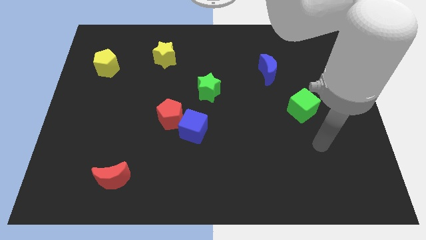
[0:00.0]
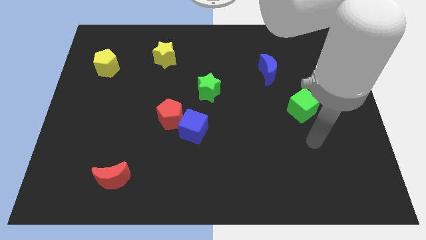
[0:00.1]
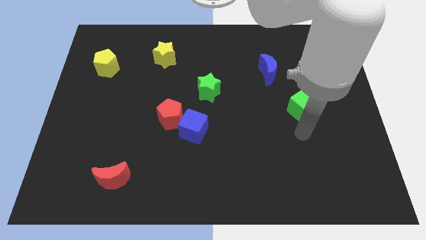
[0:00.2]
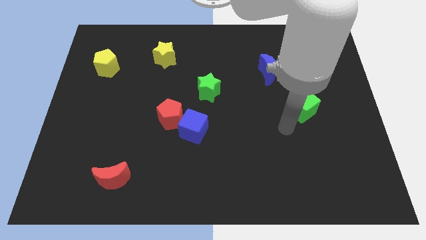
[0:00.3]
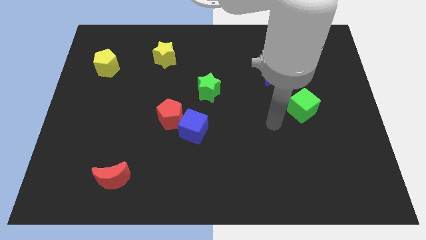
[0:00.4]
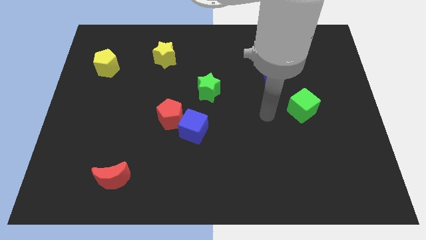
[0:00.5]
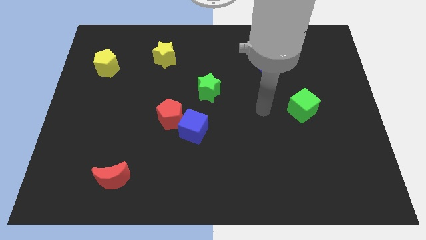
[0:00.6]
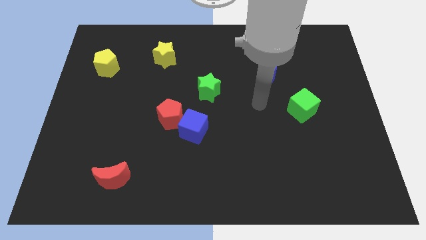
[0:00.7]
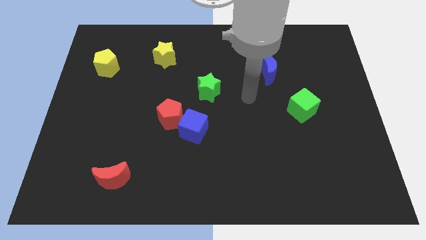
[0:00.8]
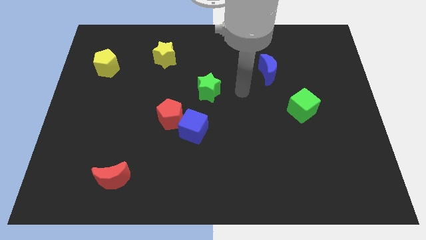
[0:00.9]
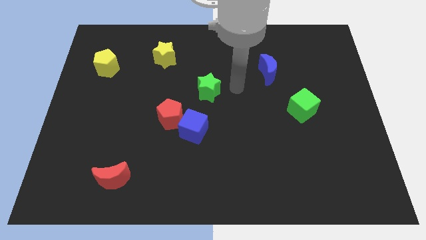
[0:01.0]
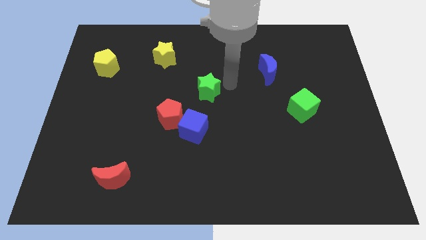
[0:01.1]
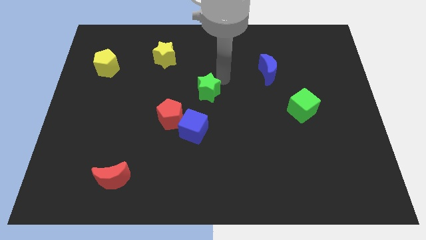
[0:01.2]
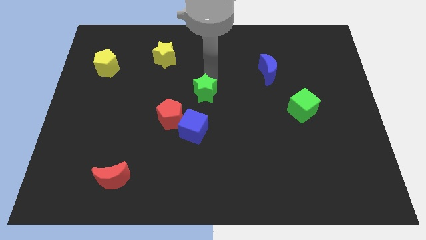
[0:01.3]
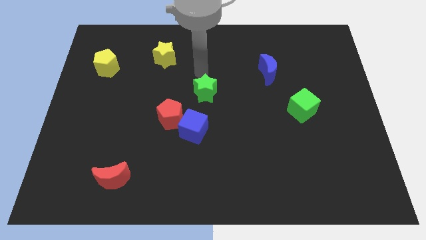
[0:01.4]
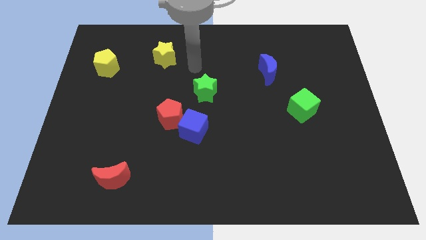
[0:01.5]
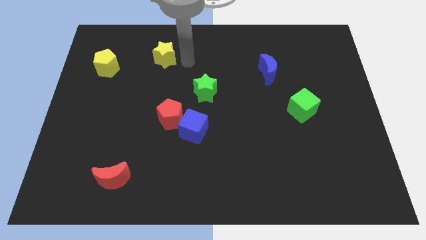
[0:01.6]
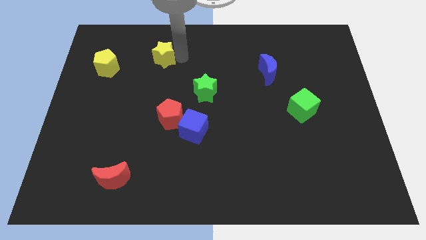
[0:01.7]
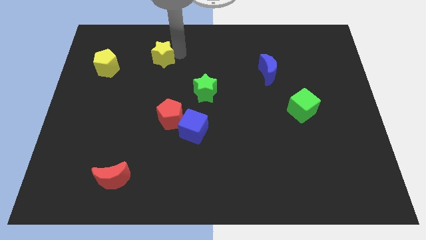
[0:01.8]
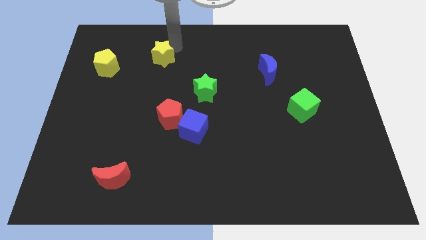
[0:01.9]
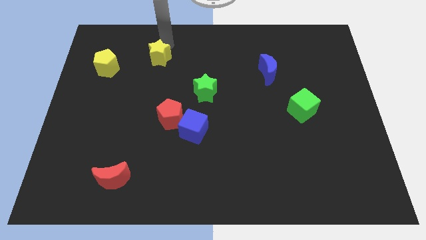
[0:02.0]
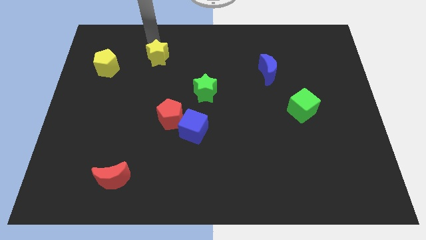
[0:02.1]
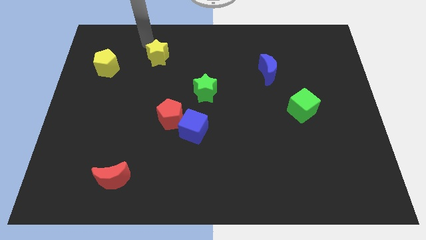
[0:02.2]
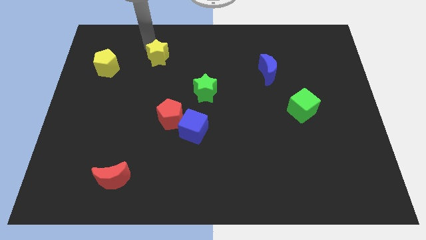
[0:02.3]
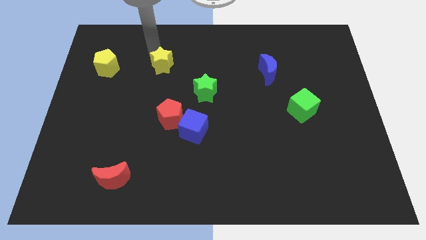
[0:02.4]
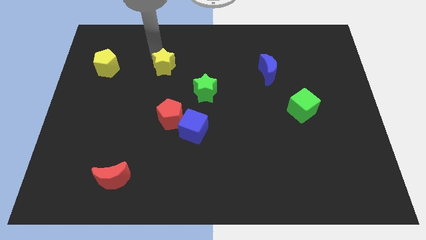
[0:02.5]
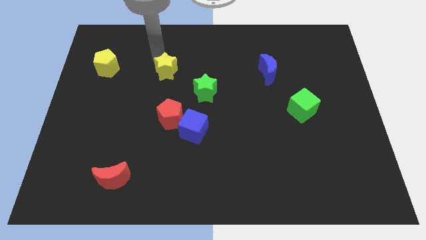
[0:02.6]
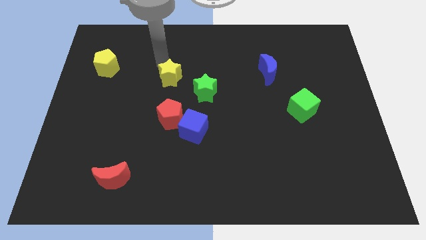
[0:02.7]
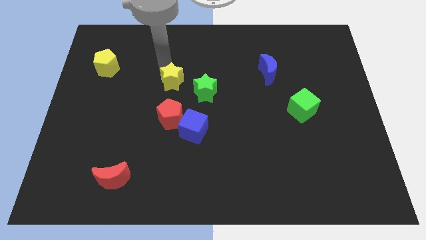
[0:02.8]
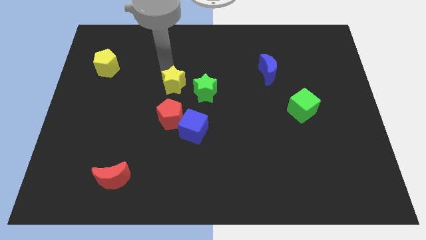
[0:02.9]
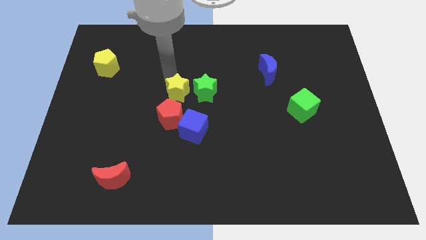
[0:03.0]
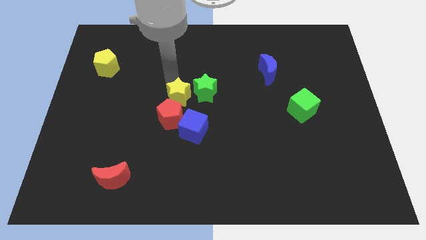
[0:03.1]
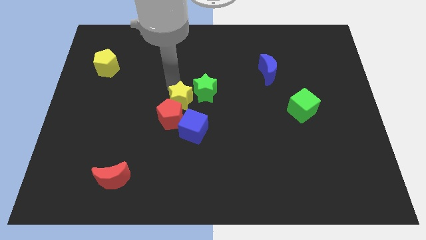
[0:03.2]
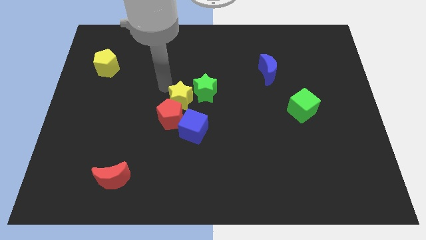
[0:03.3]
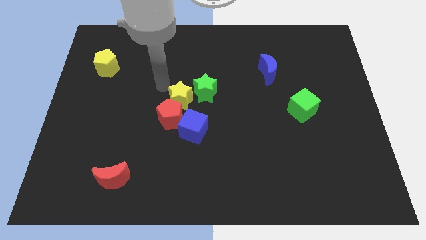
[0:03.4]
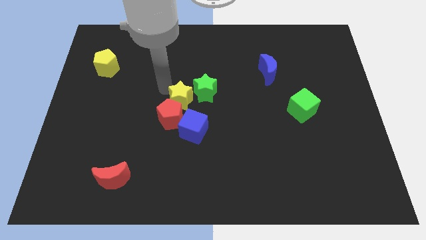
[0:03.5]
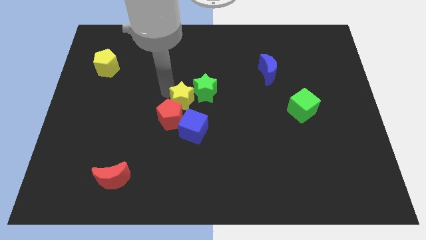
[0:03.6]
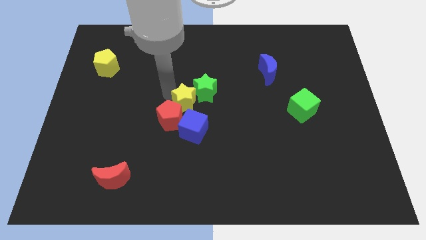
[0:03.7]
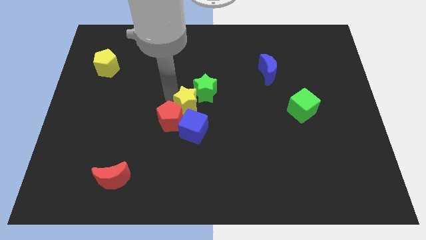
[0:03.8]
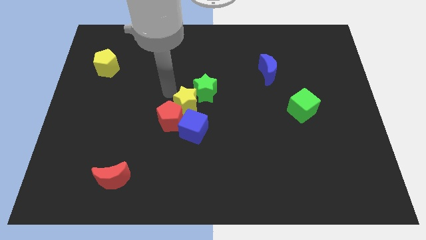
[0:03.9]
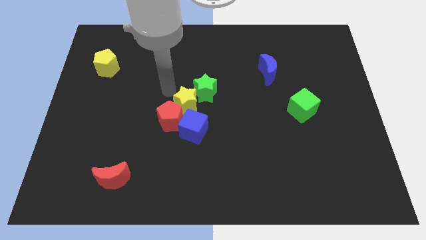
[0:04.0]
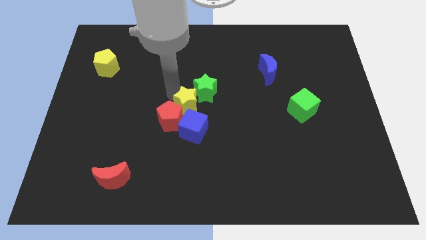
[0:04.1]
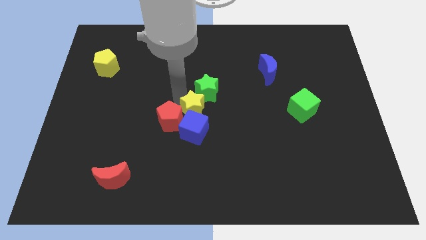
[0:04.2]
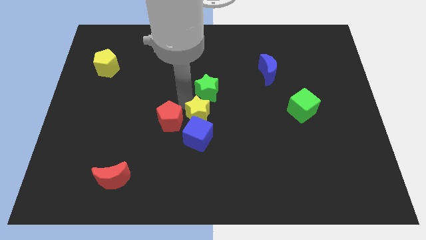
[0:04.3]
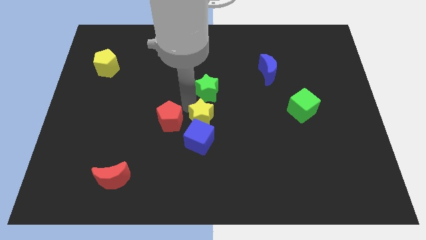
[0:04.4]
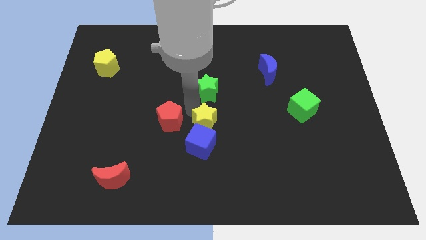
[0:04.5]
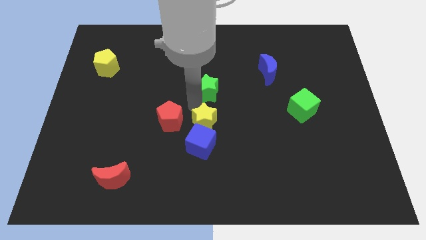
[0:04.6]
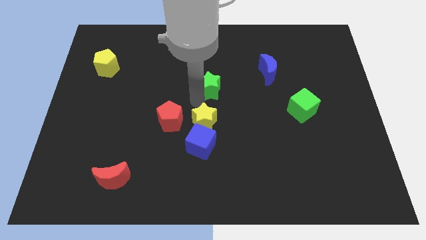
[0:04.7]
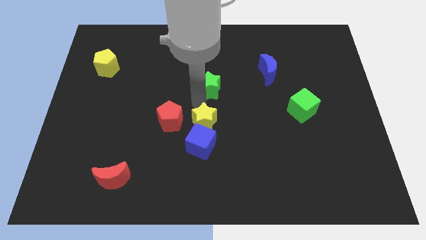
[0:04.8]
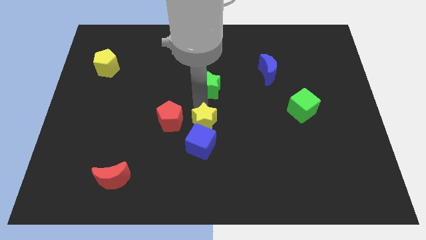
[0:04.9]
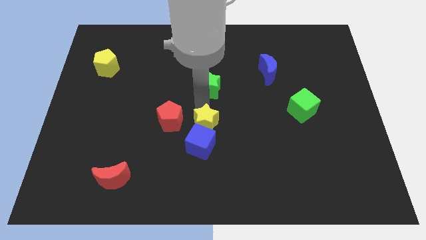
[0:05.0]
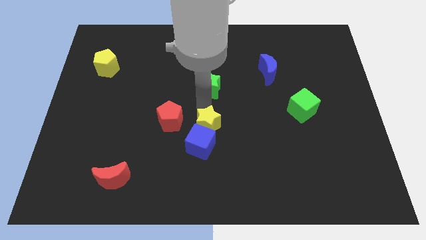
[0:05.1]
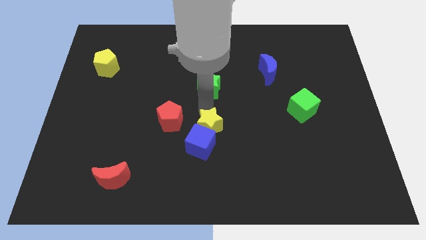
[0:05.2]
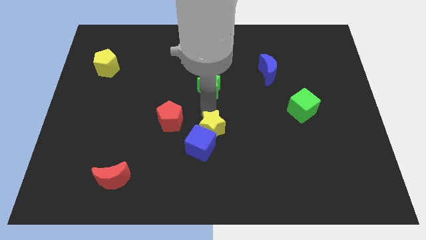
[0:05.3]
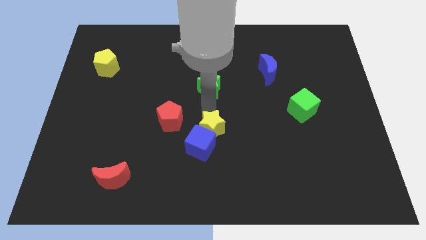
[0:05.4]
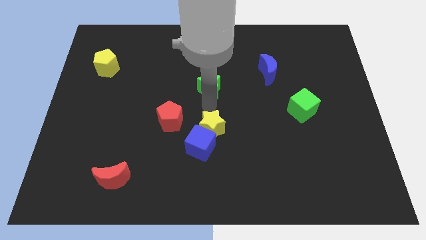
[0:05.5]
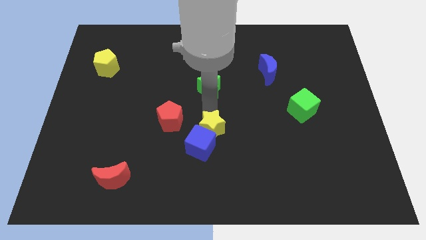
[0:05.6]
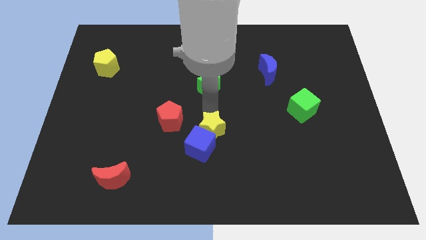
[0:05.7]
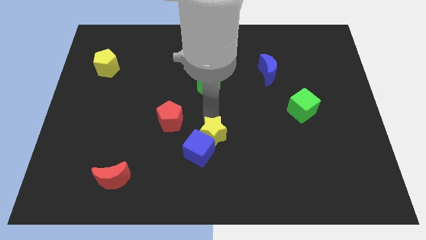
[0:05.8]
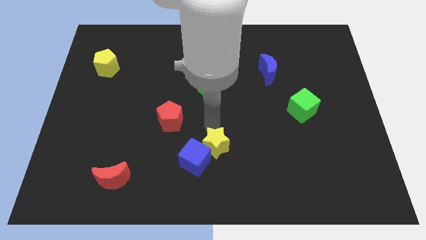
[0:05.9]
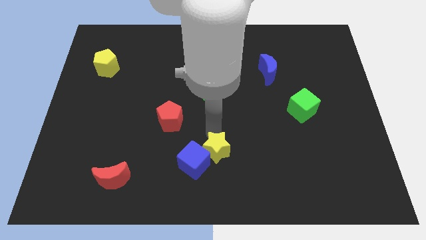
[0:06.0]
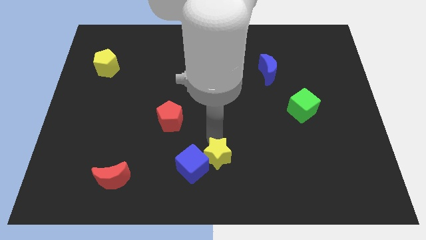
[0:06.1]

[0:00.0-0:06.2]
slide the yellow star to the bottom
